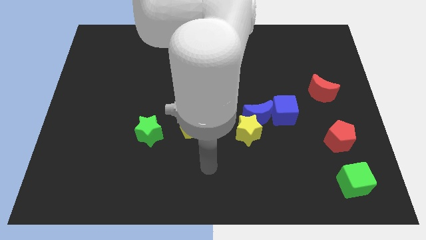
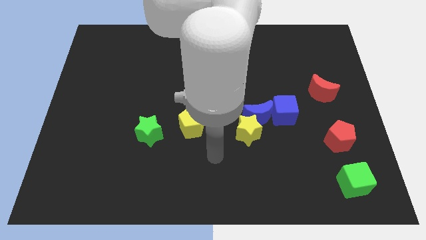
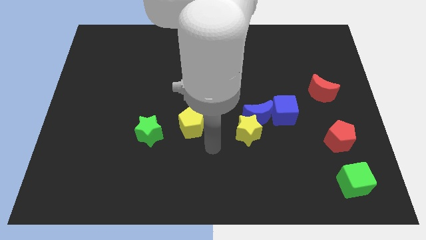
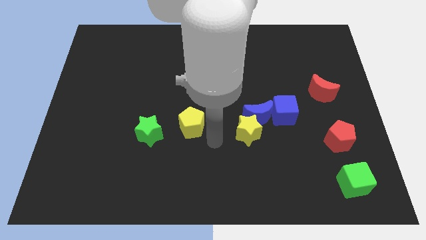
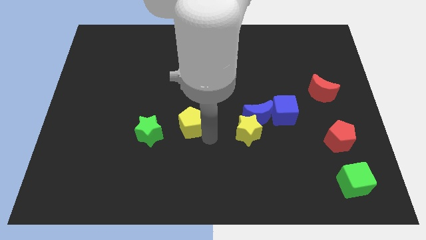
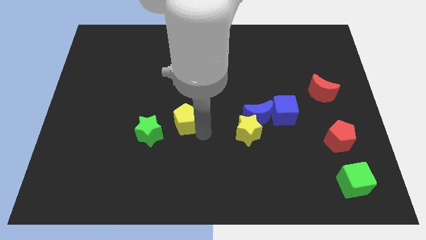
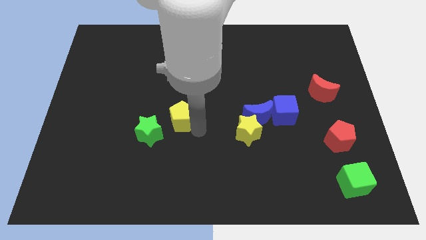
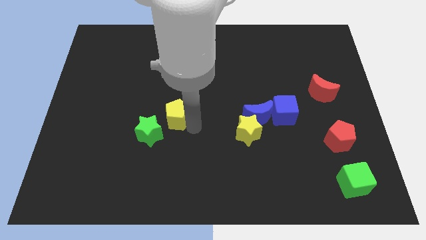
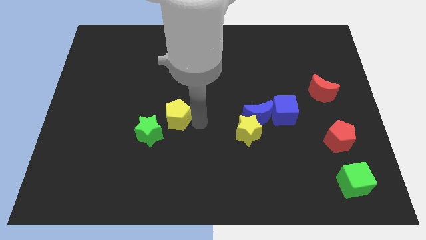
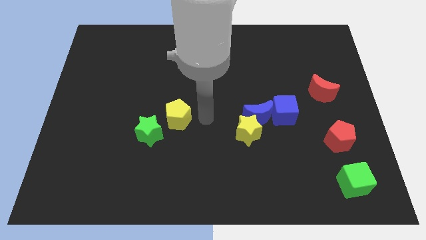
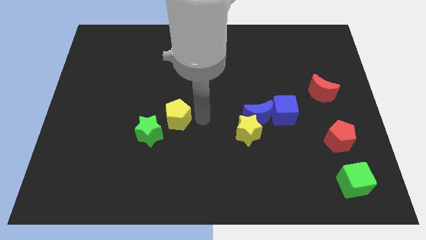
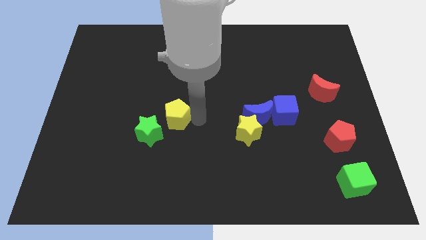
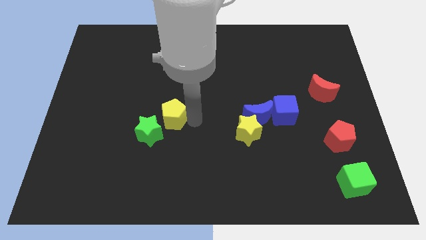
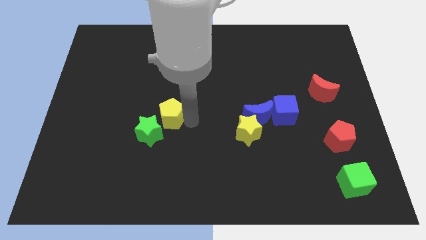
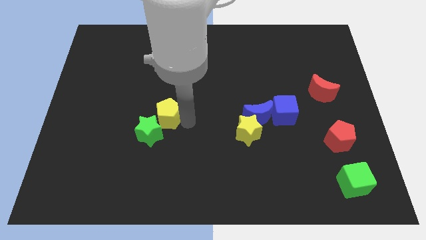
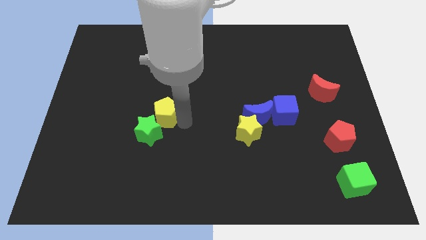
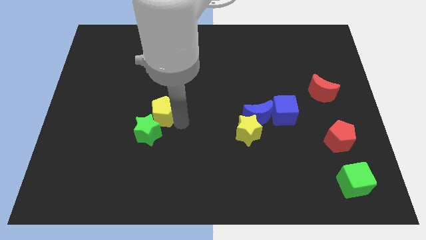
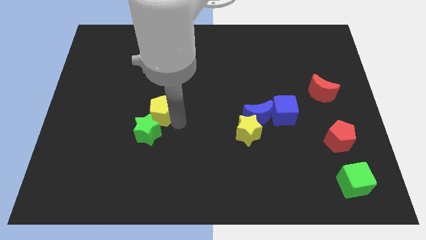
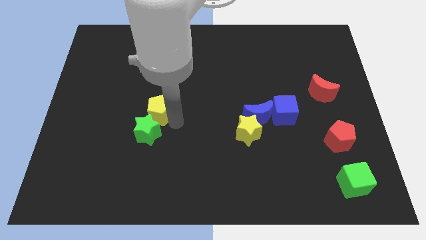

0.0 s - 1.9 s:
move the yellow pentagon left a little

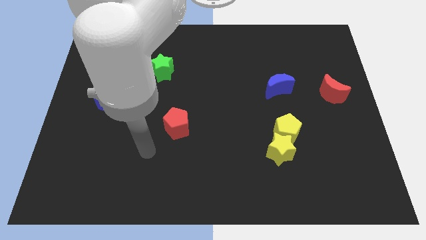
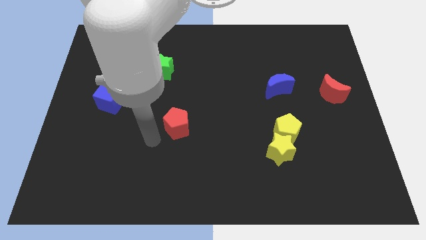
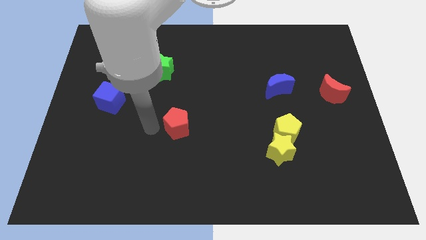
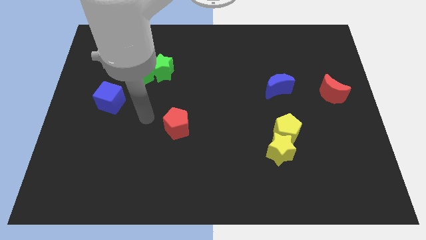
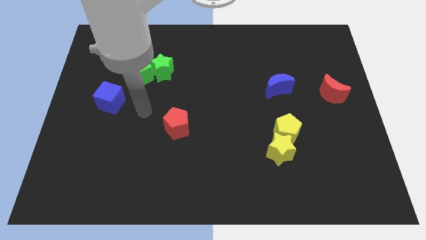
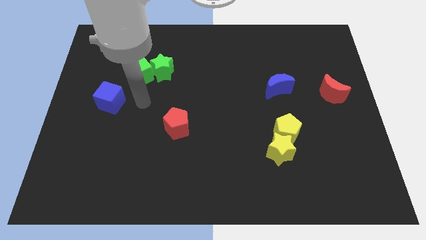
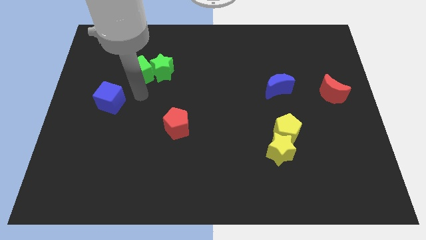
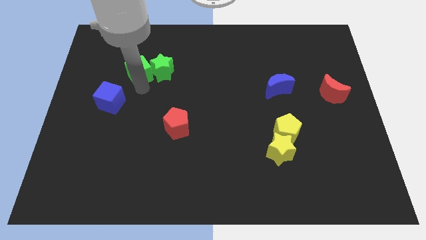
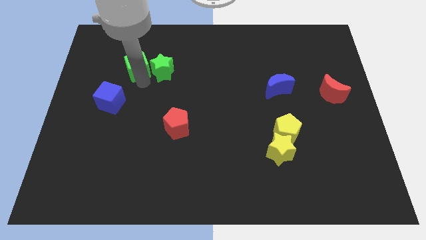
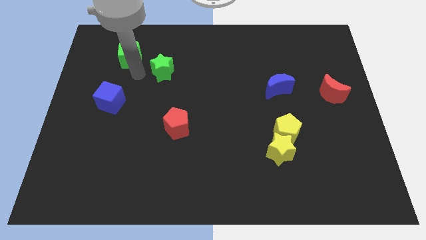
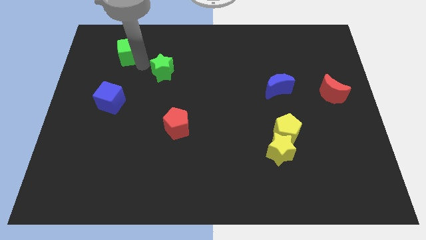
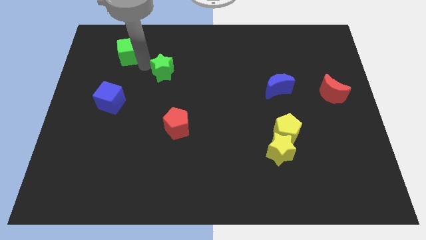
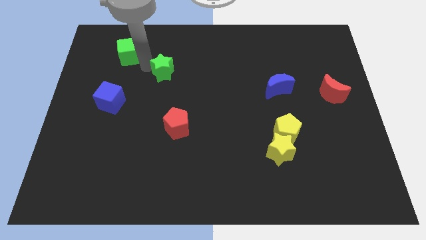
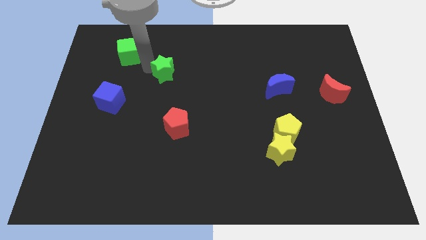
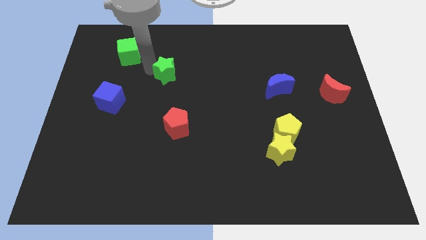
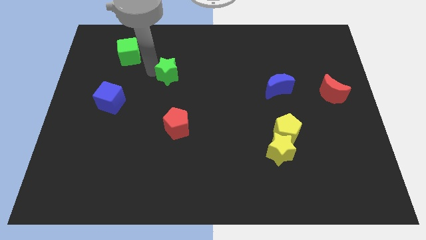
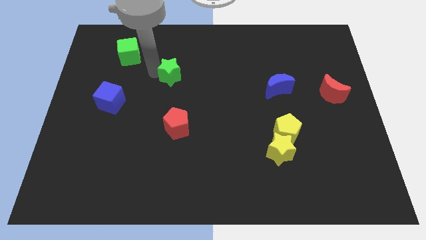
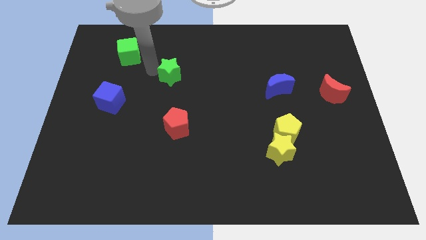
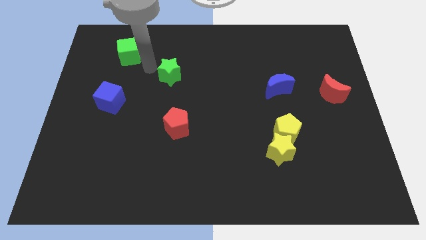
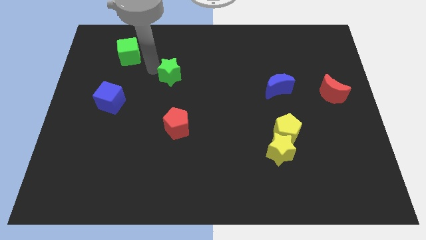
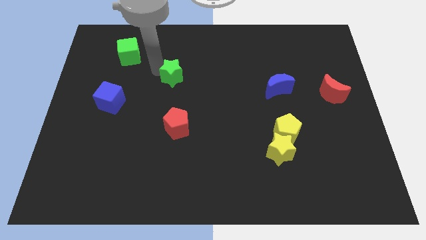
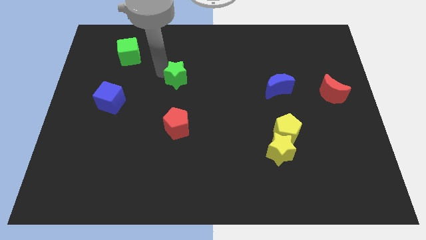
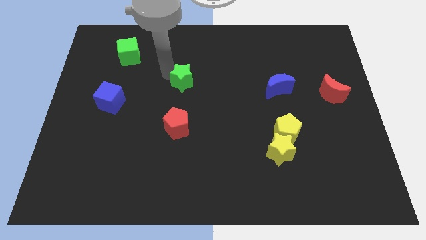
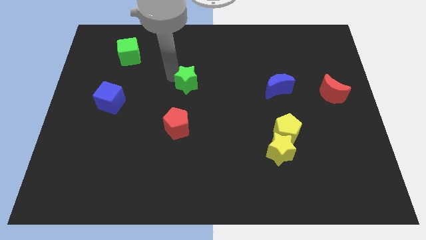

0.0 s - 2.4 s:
slide the green star down and then right a little

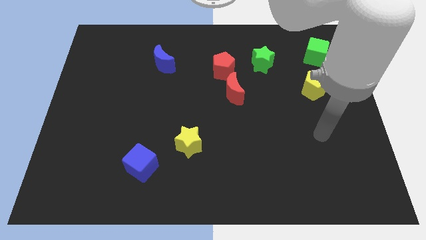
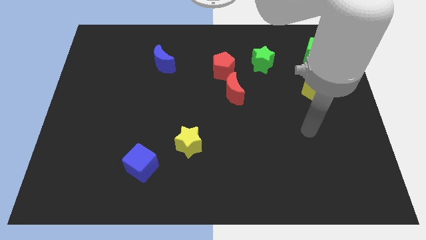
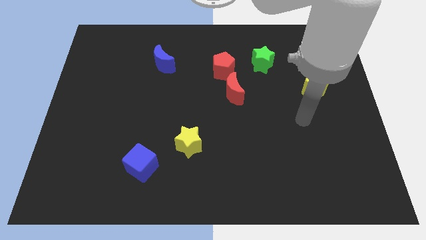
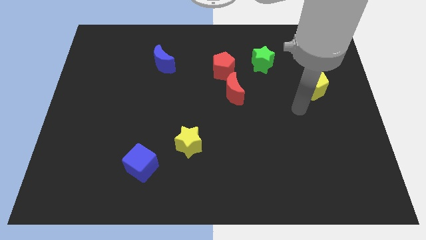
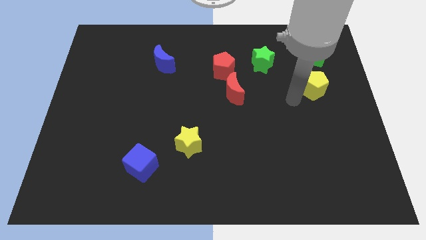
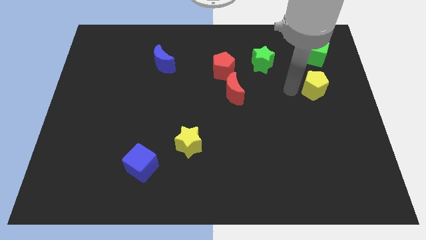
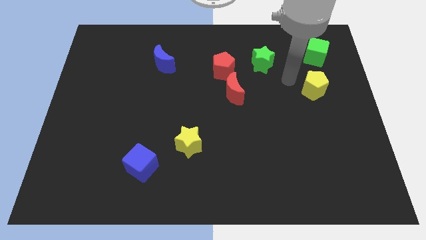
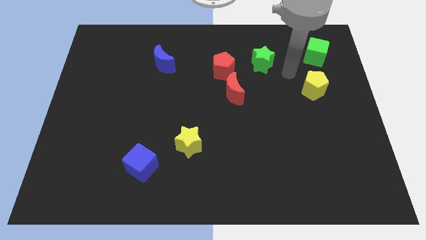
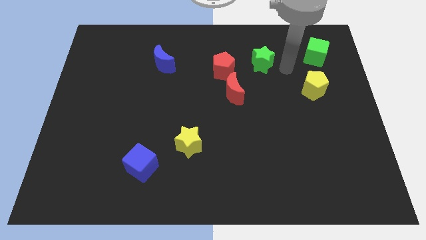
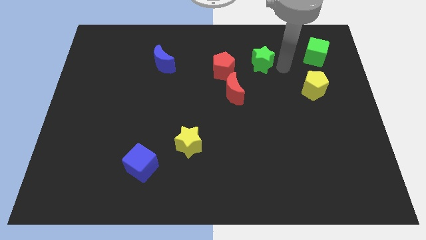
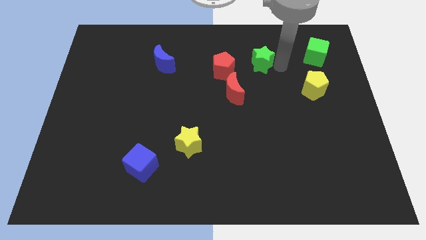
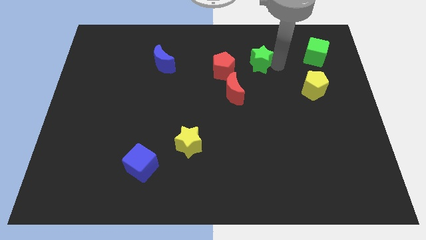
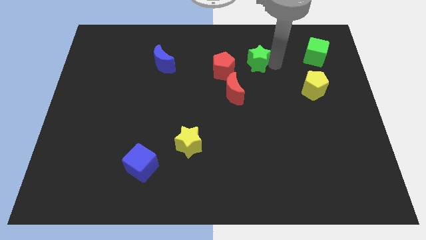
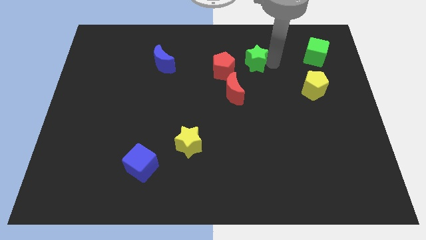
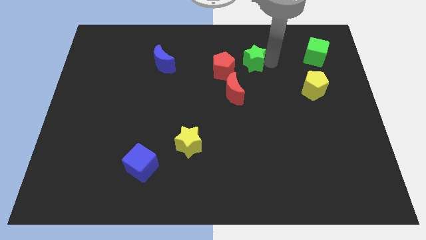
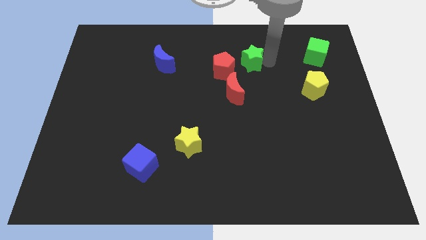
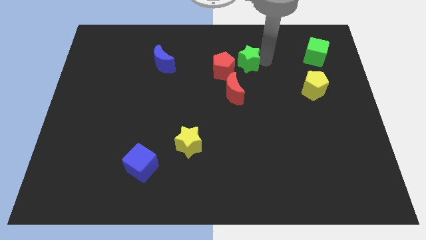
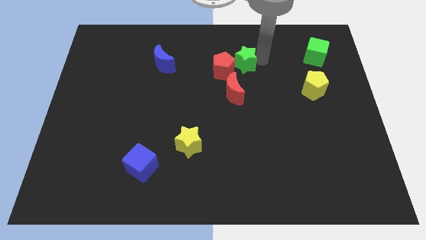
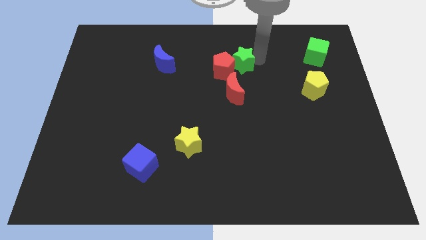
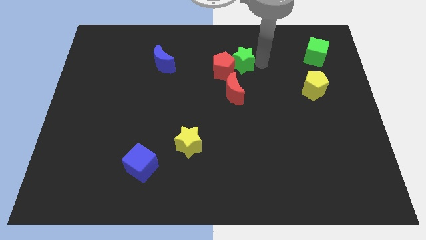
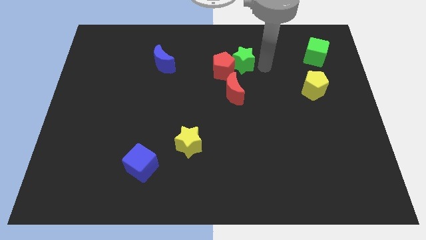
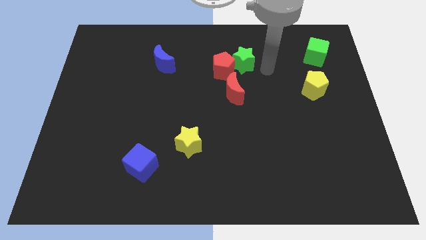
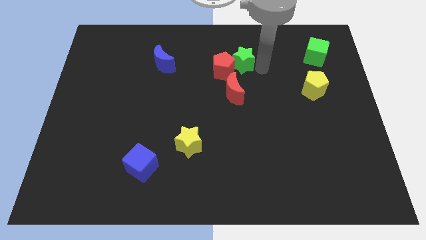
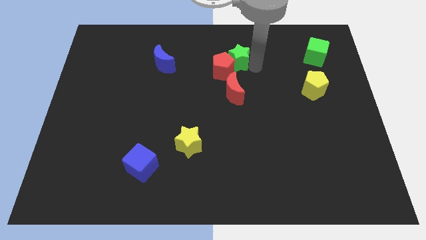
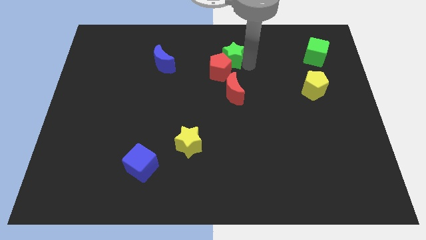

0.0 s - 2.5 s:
slightly slide the green star left

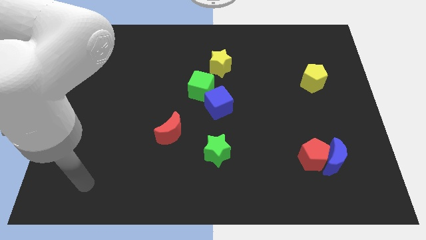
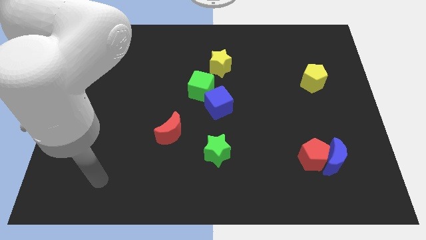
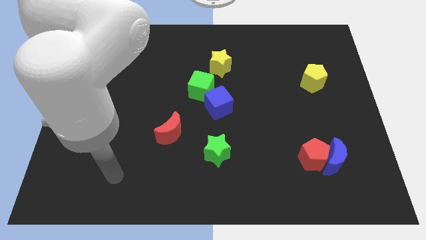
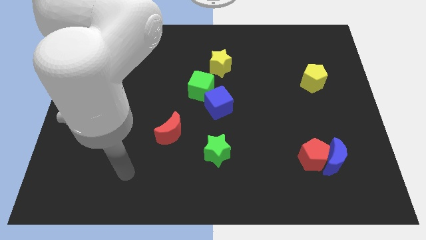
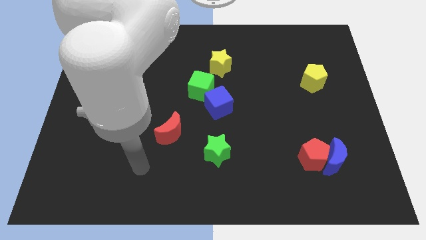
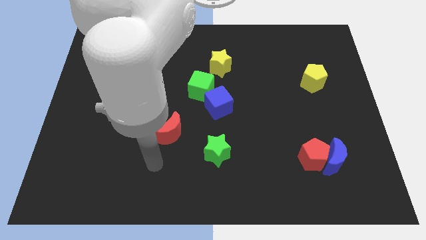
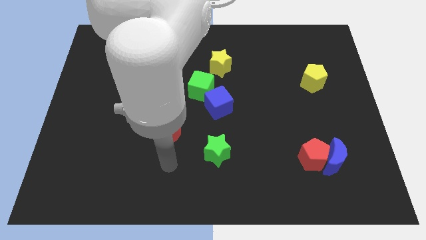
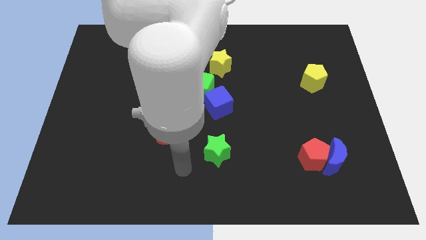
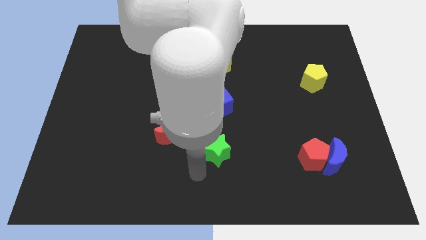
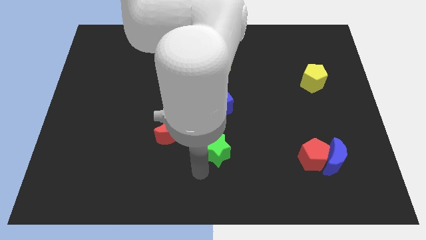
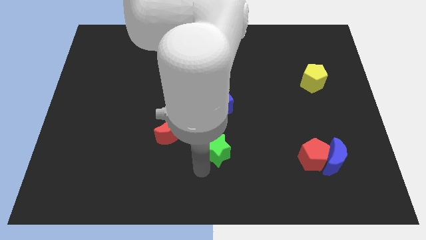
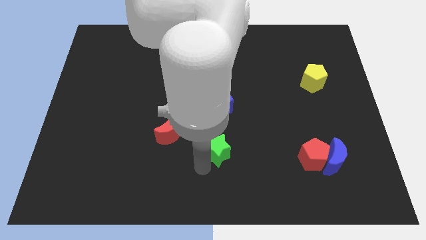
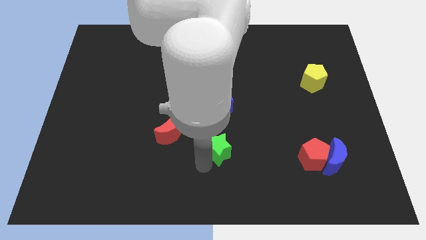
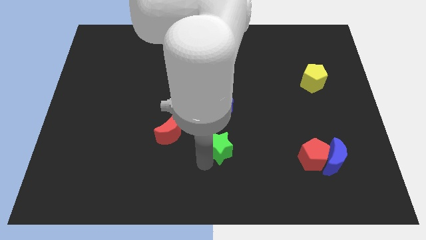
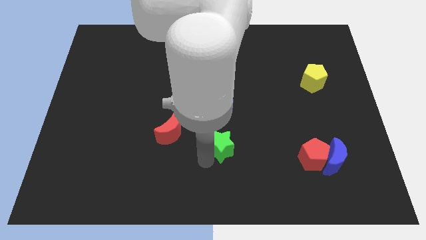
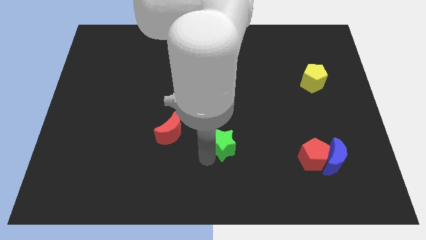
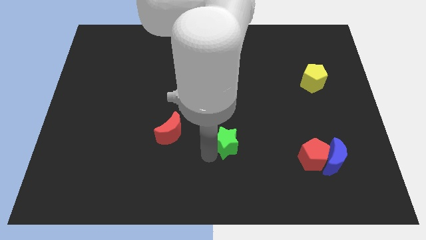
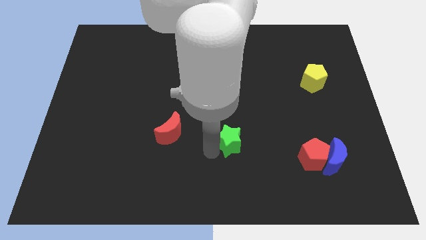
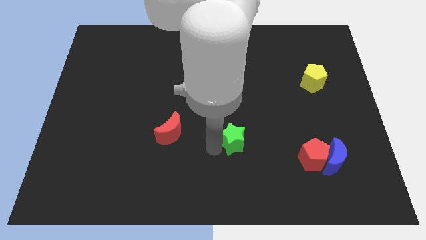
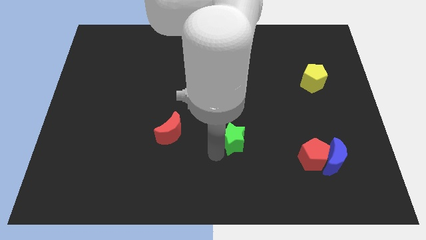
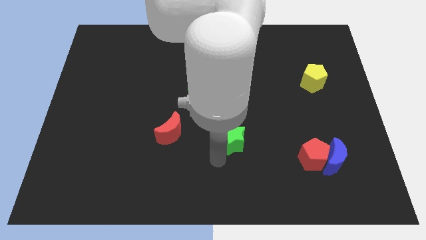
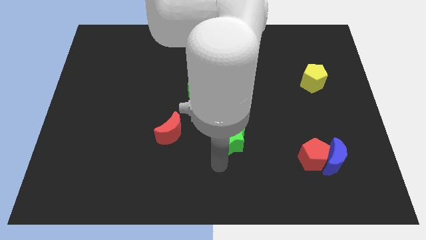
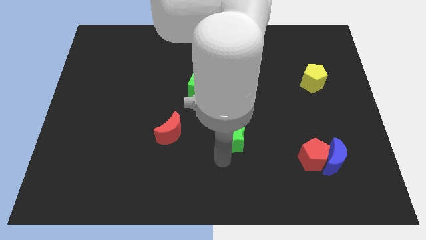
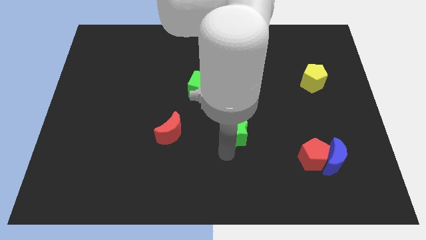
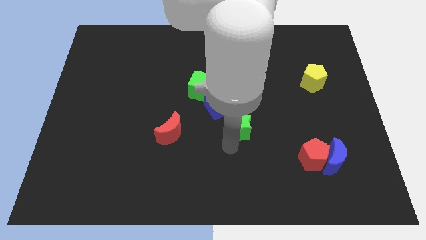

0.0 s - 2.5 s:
push the green star upwards and to the right a little bit
